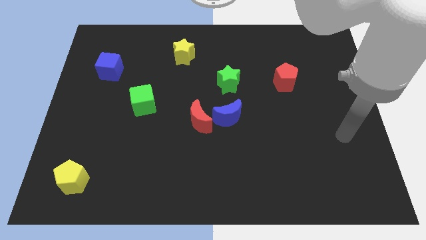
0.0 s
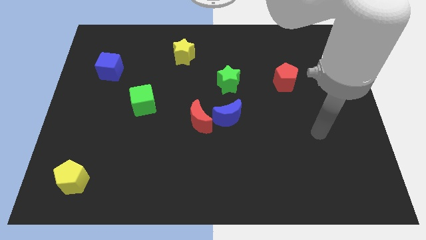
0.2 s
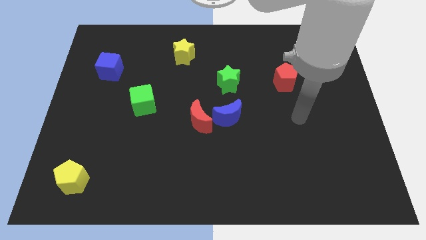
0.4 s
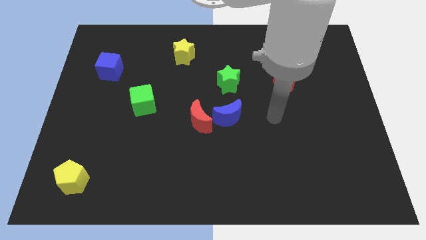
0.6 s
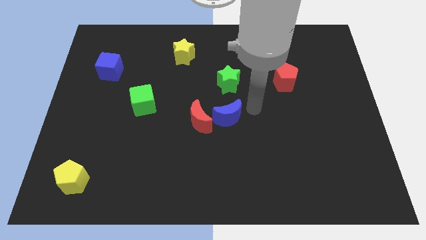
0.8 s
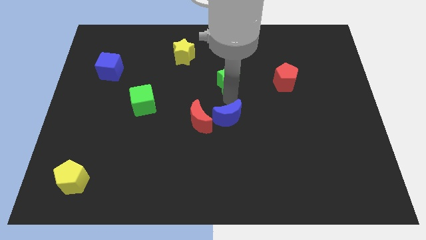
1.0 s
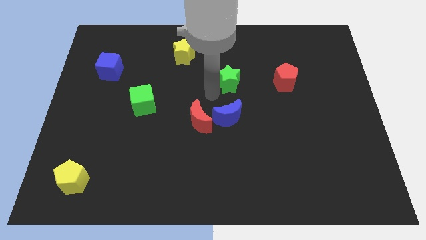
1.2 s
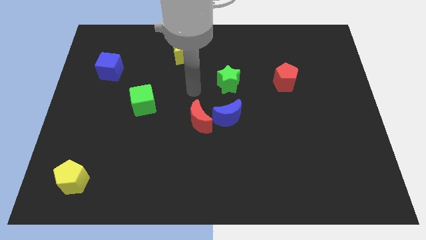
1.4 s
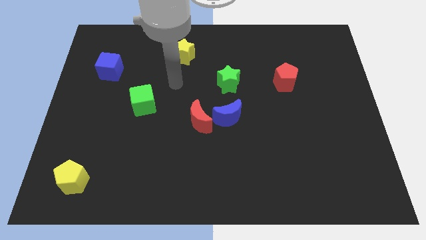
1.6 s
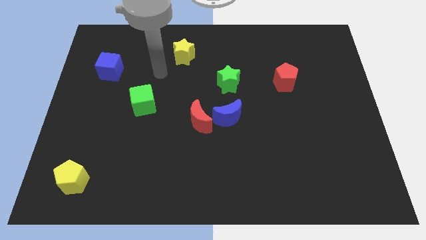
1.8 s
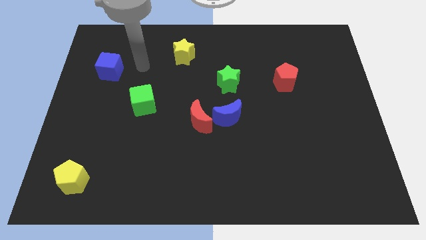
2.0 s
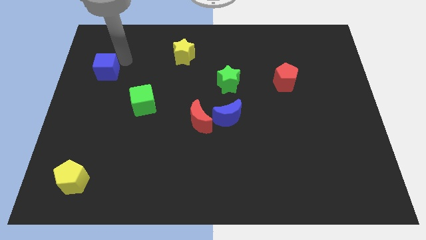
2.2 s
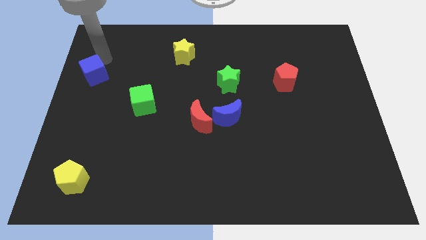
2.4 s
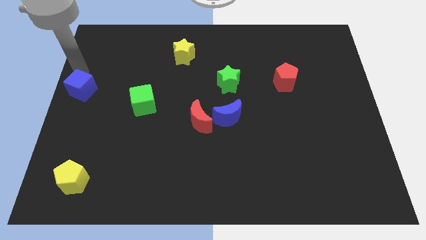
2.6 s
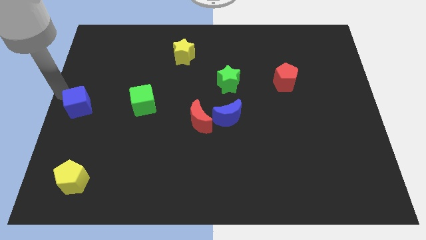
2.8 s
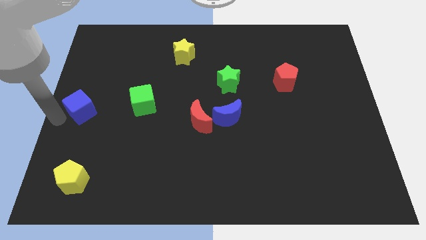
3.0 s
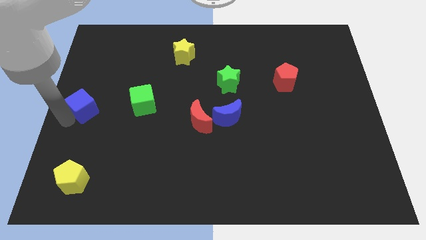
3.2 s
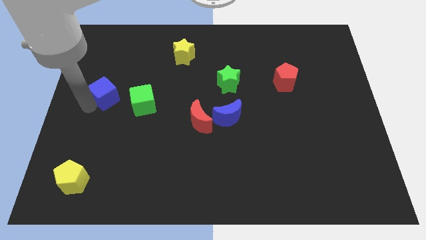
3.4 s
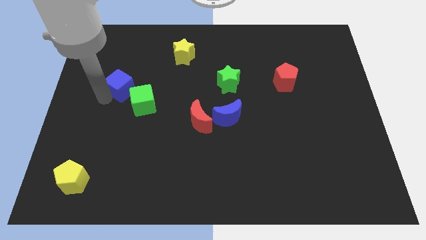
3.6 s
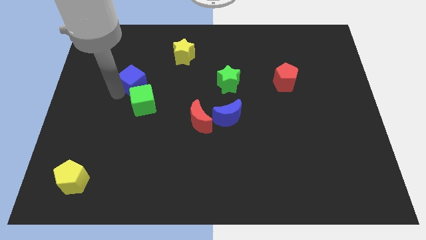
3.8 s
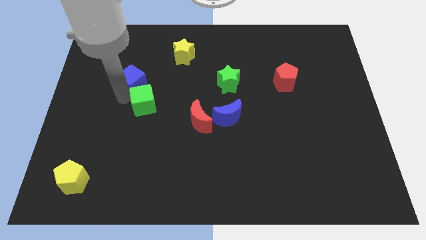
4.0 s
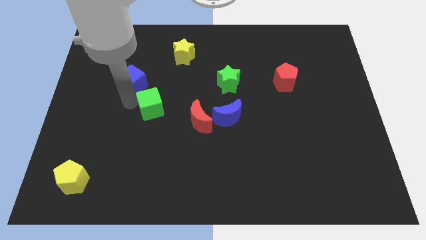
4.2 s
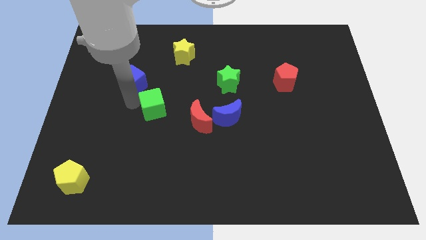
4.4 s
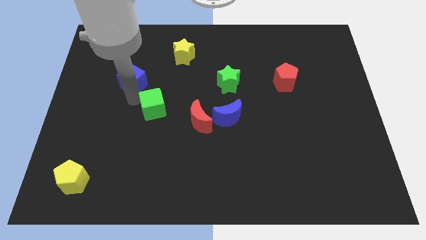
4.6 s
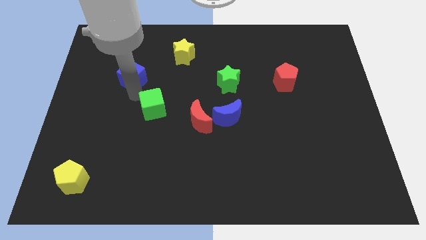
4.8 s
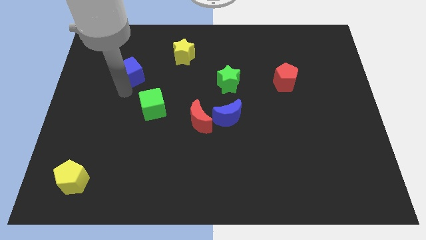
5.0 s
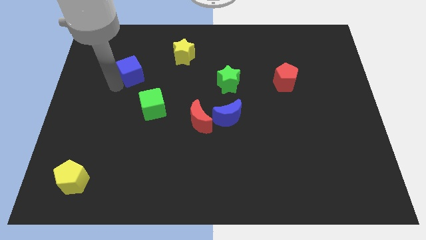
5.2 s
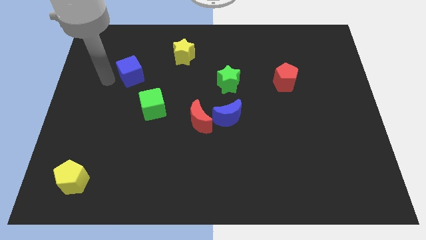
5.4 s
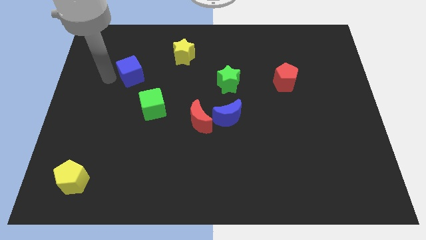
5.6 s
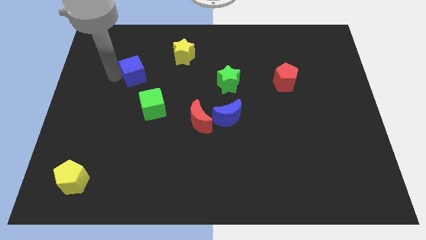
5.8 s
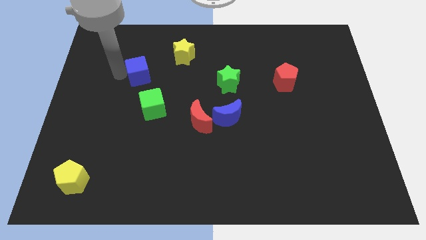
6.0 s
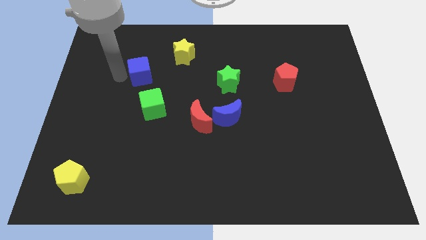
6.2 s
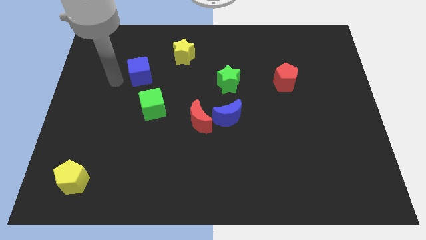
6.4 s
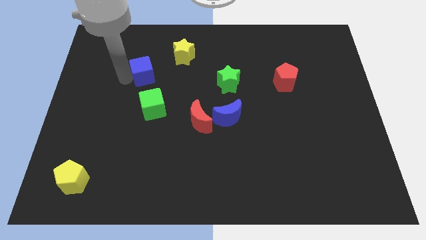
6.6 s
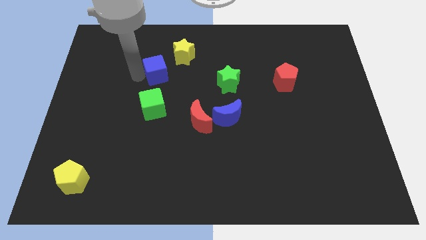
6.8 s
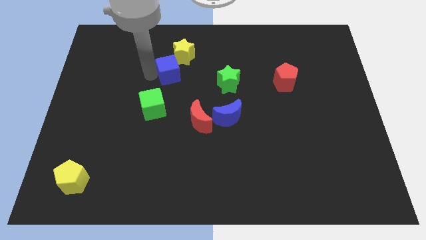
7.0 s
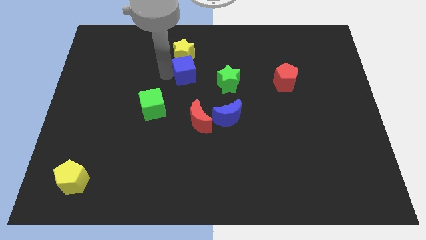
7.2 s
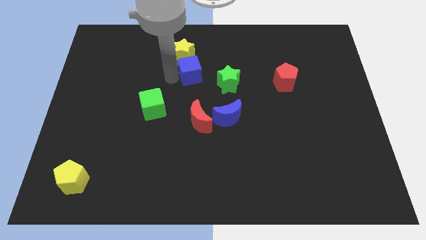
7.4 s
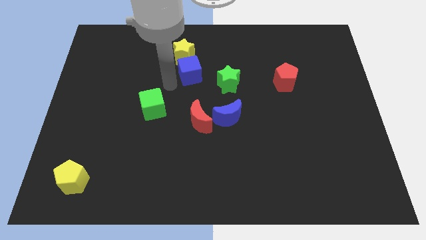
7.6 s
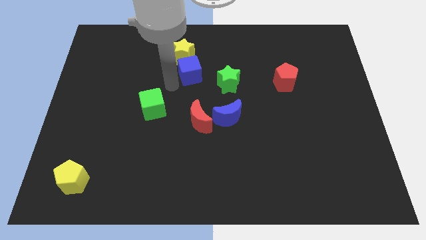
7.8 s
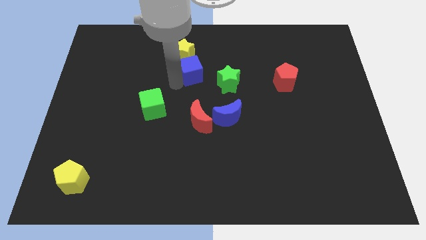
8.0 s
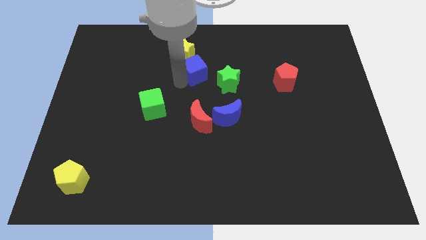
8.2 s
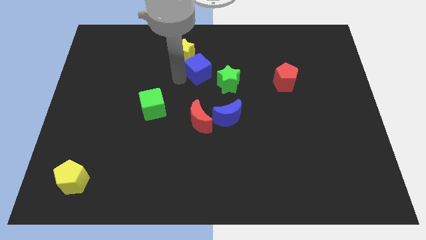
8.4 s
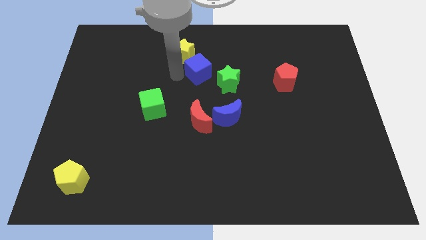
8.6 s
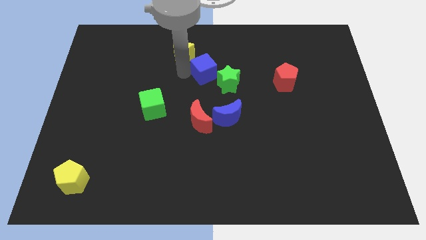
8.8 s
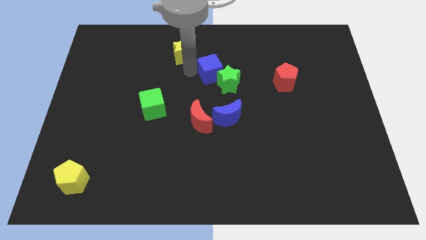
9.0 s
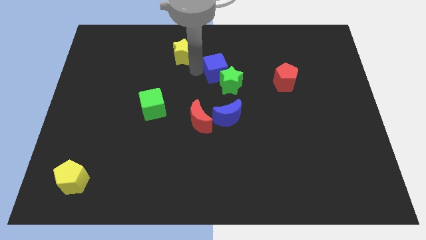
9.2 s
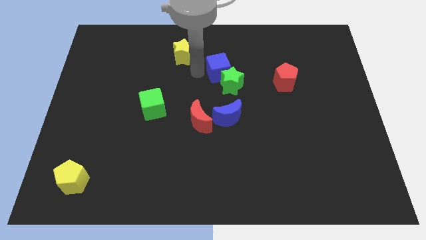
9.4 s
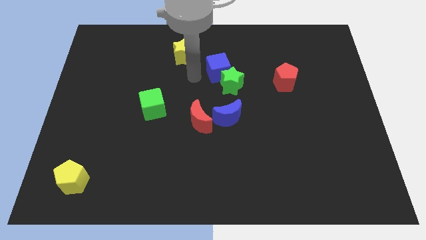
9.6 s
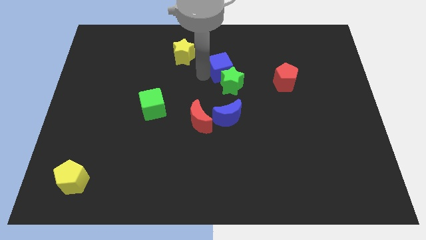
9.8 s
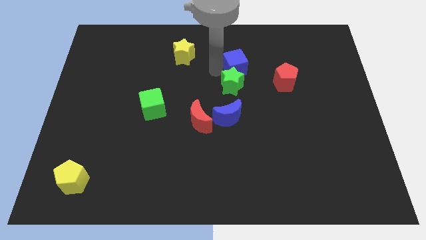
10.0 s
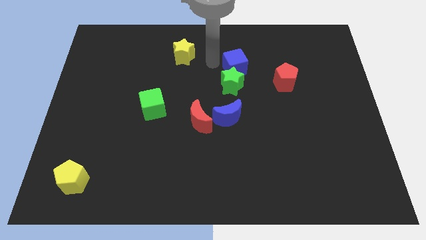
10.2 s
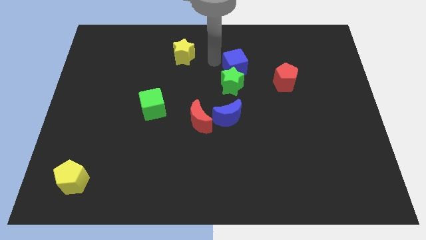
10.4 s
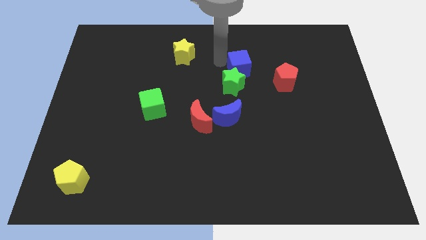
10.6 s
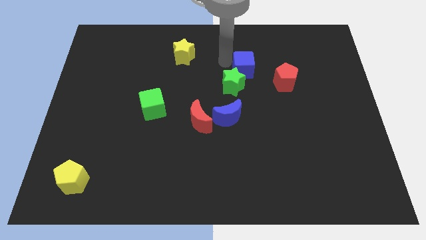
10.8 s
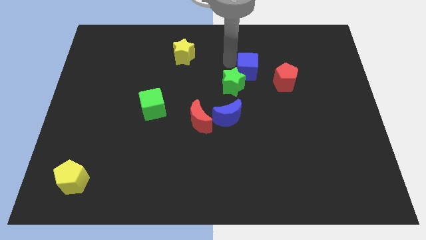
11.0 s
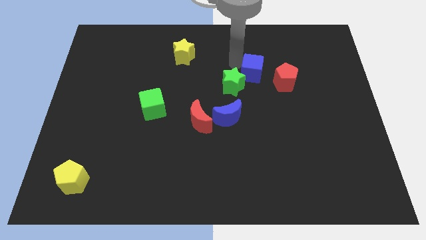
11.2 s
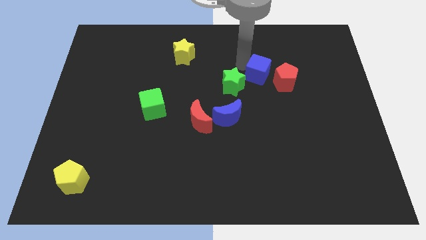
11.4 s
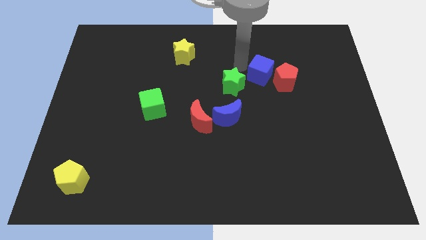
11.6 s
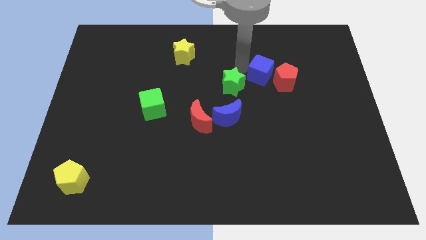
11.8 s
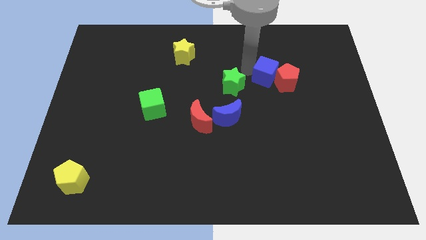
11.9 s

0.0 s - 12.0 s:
push the blue cube towards the red pentagon

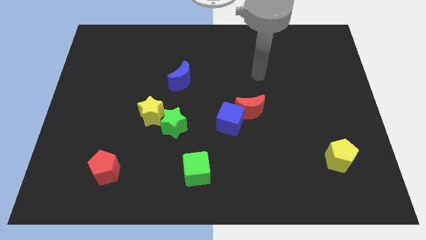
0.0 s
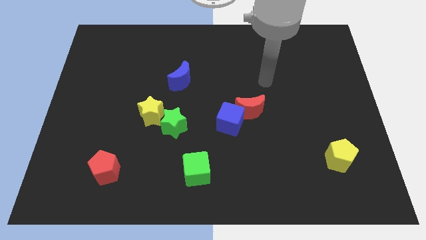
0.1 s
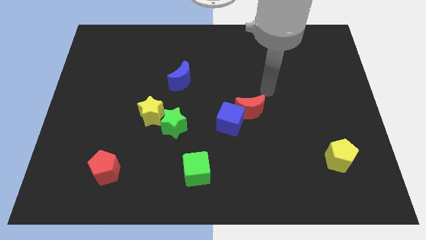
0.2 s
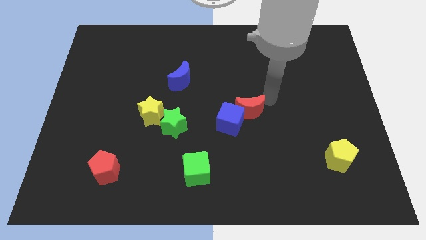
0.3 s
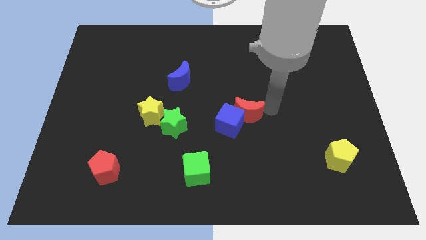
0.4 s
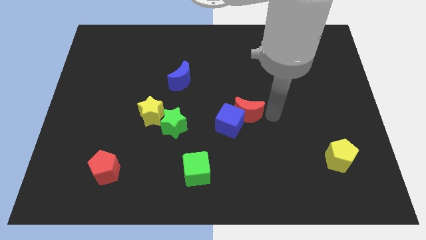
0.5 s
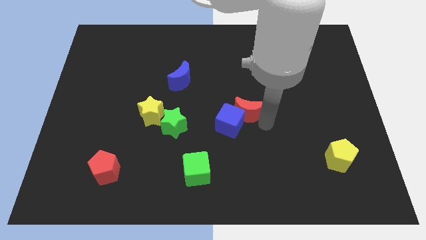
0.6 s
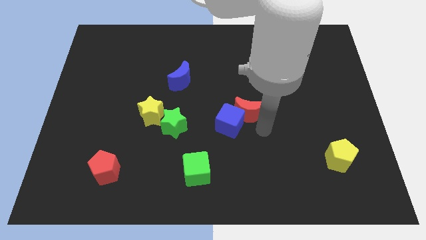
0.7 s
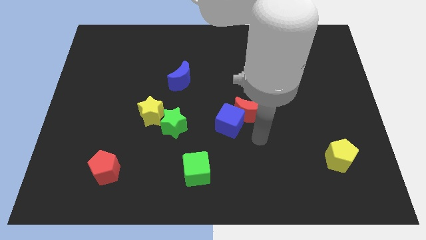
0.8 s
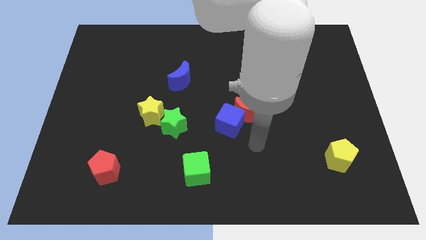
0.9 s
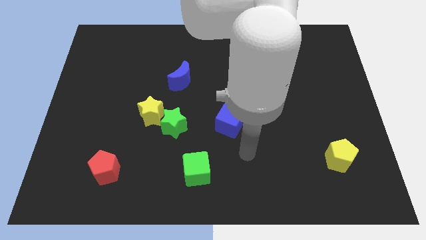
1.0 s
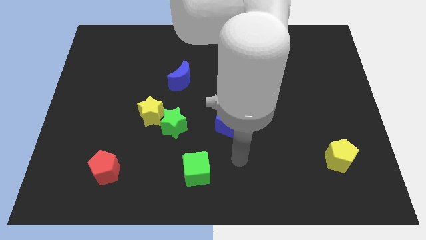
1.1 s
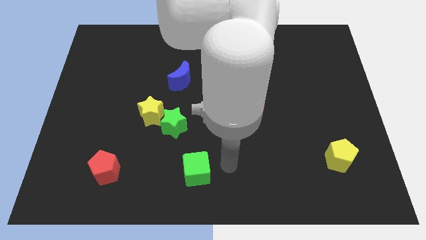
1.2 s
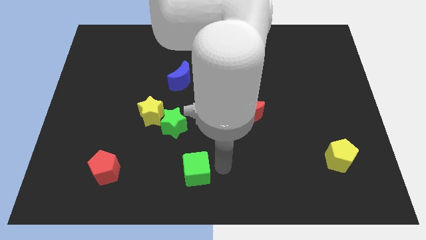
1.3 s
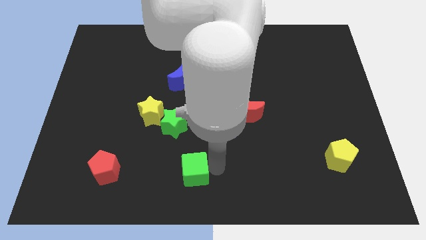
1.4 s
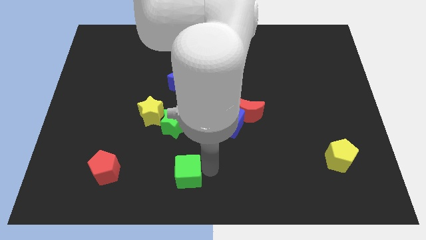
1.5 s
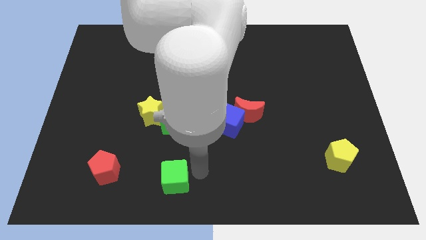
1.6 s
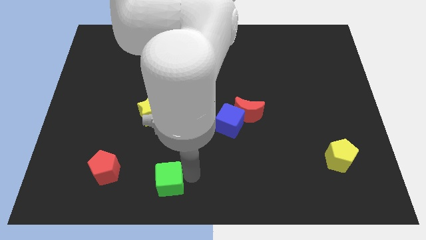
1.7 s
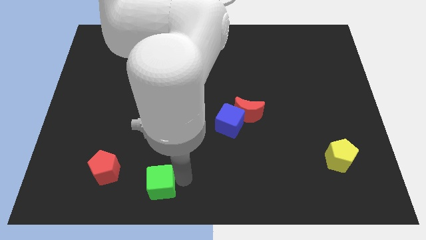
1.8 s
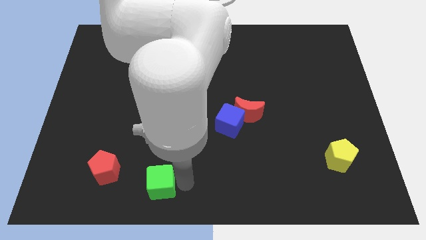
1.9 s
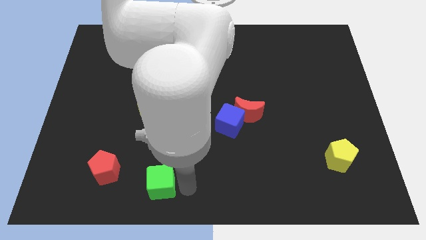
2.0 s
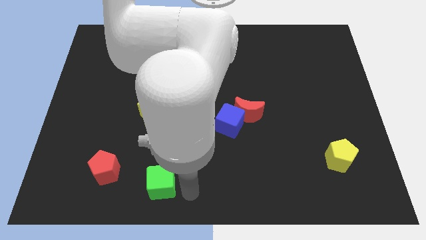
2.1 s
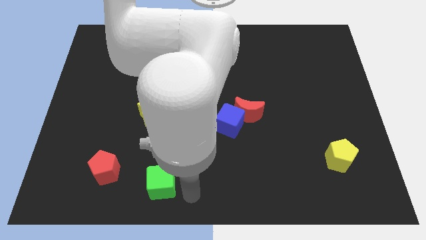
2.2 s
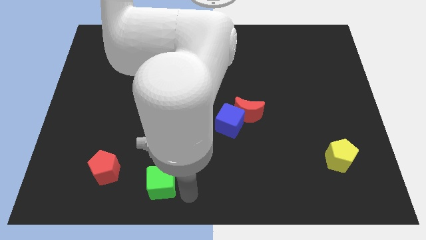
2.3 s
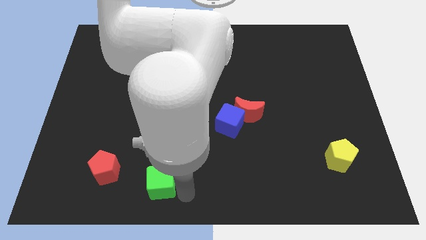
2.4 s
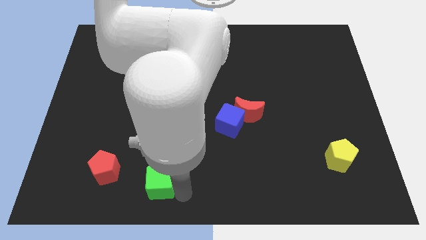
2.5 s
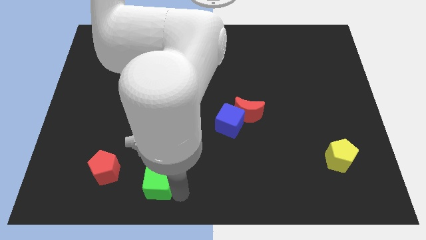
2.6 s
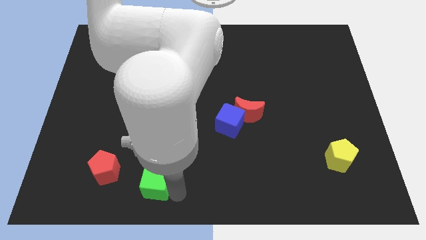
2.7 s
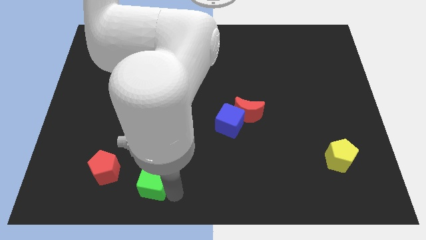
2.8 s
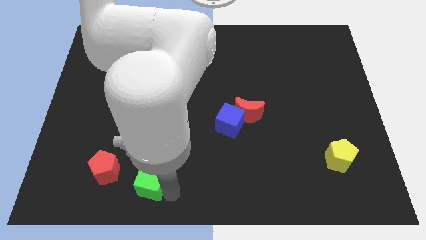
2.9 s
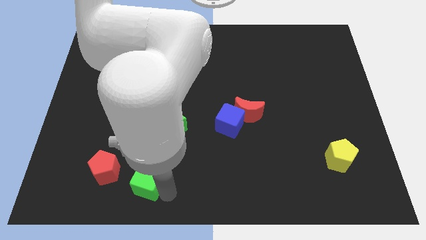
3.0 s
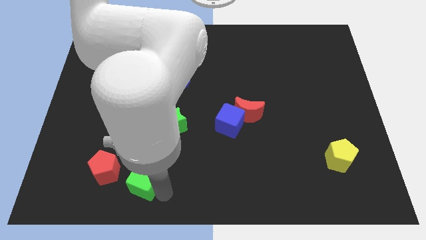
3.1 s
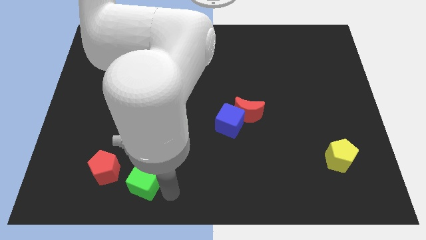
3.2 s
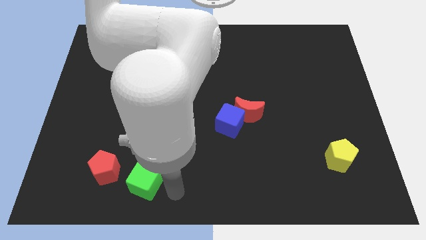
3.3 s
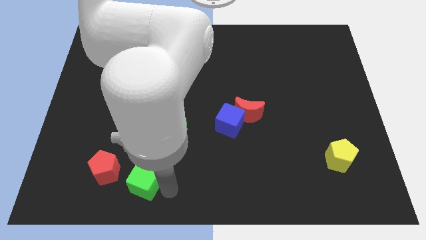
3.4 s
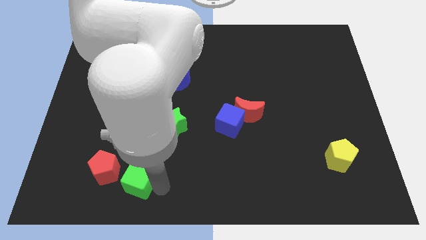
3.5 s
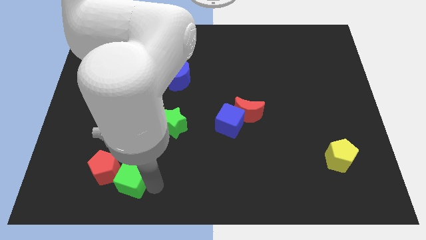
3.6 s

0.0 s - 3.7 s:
push the green cube close to the red pentagon
